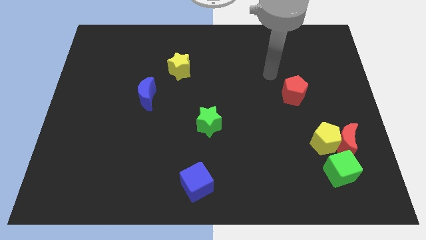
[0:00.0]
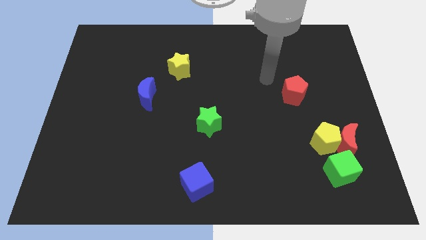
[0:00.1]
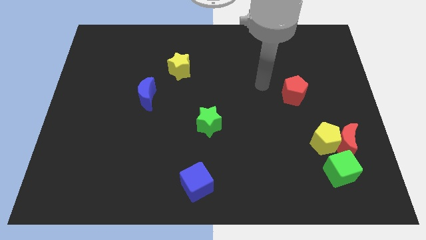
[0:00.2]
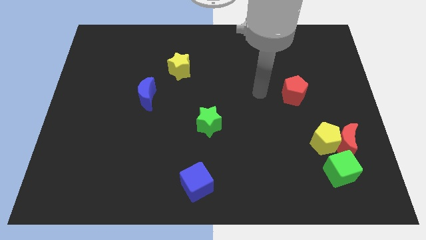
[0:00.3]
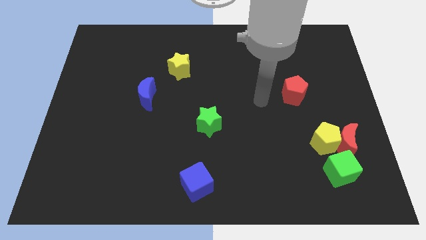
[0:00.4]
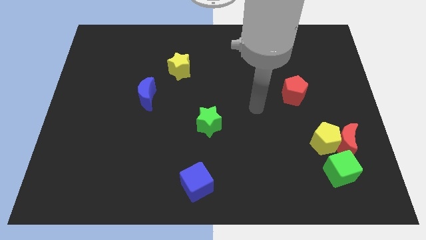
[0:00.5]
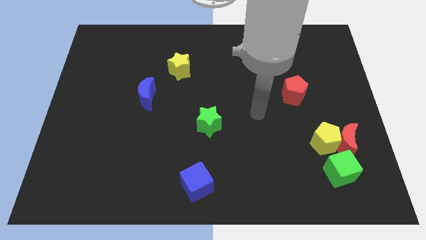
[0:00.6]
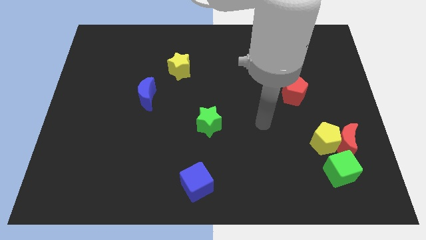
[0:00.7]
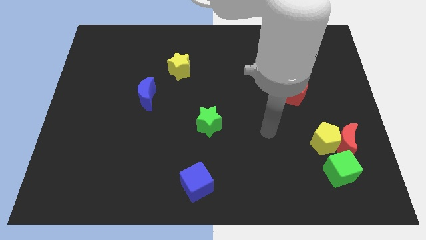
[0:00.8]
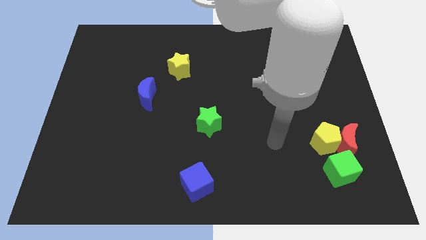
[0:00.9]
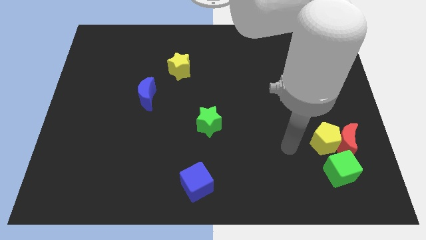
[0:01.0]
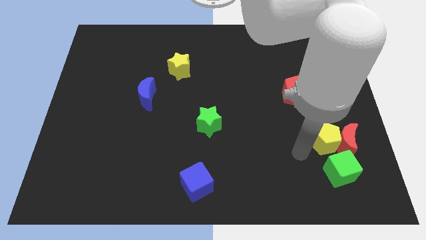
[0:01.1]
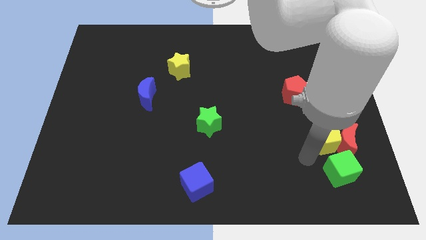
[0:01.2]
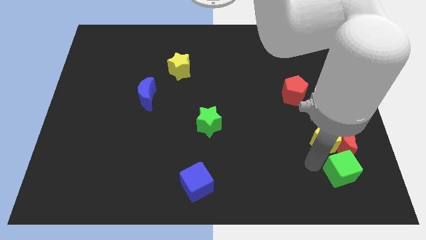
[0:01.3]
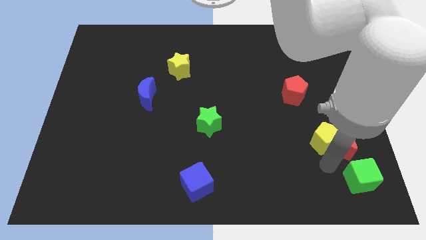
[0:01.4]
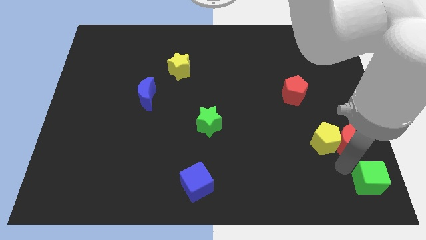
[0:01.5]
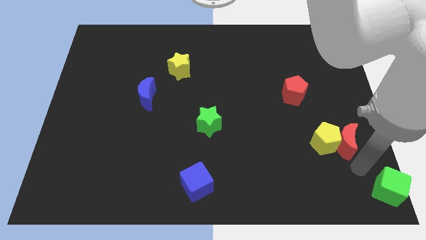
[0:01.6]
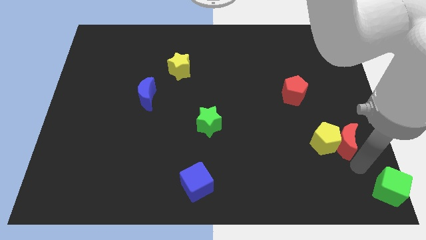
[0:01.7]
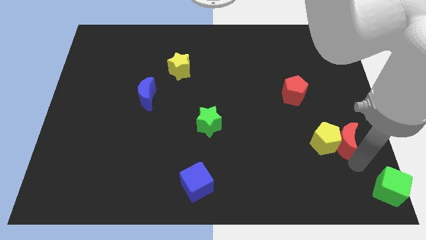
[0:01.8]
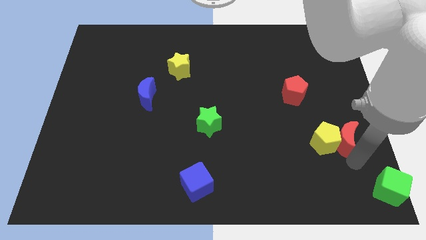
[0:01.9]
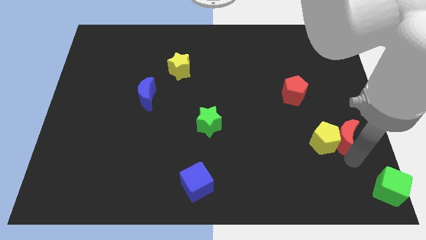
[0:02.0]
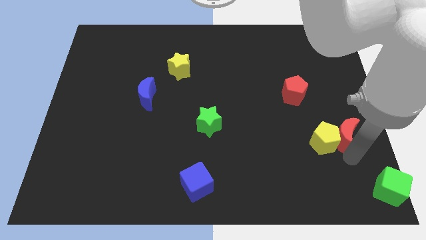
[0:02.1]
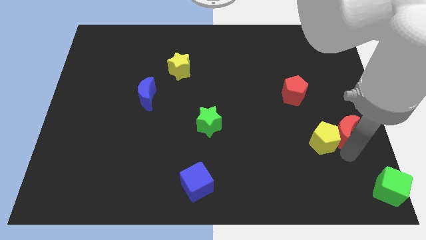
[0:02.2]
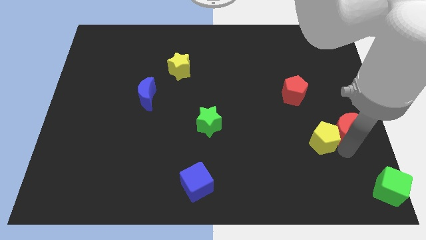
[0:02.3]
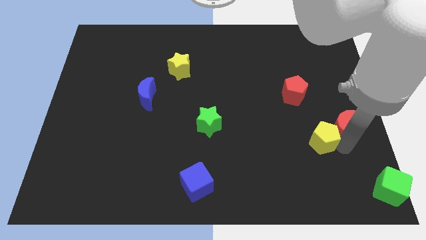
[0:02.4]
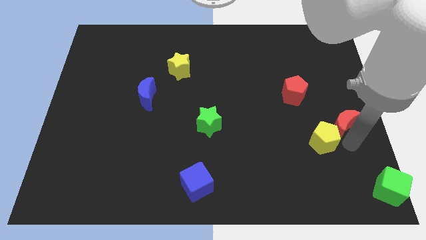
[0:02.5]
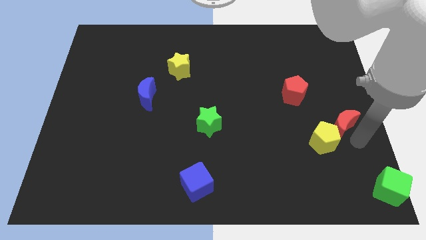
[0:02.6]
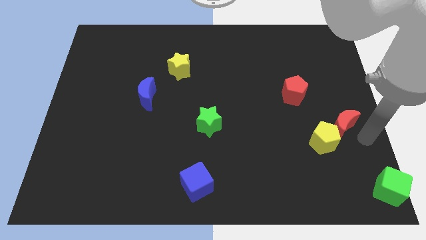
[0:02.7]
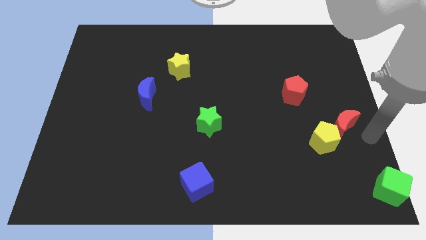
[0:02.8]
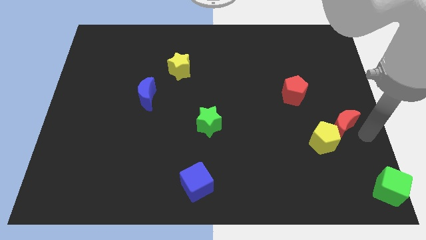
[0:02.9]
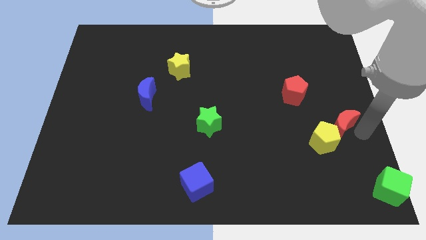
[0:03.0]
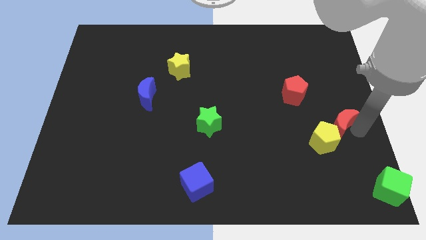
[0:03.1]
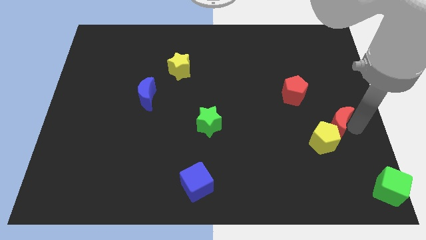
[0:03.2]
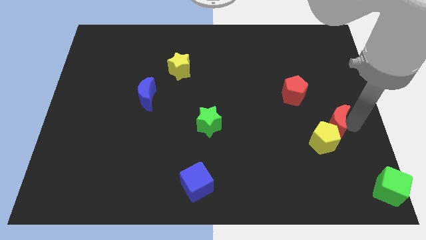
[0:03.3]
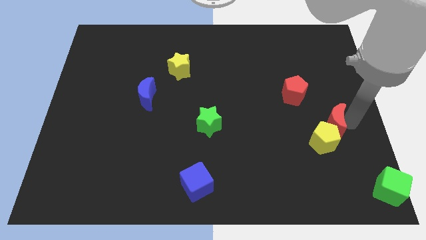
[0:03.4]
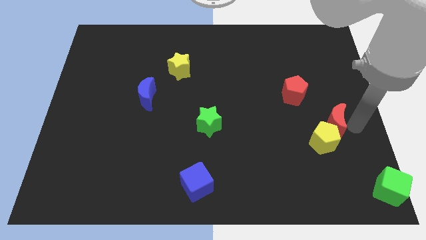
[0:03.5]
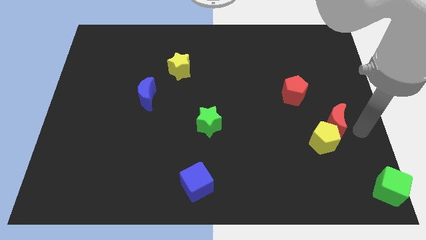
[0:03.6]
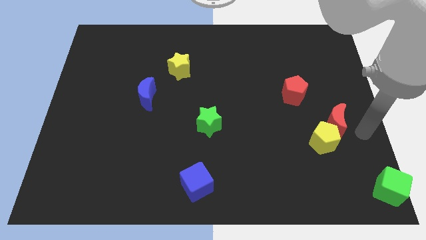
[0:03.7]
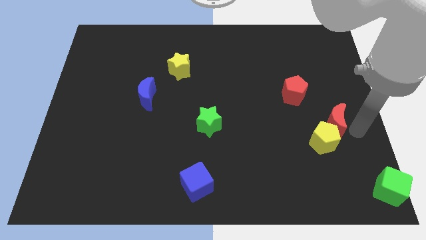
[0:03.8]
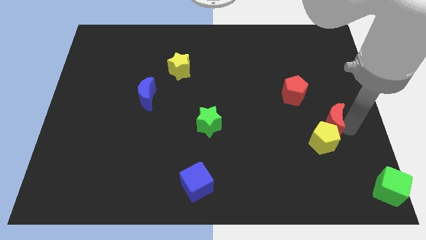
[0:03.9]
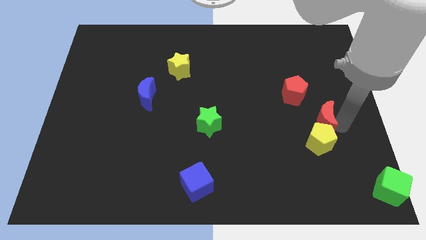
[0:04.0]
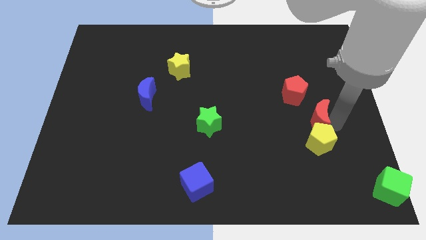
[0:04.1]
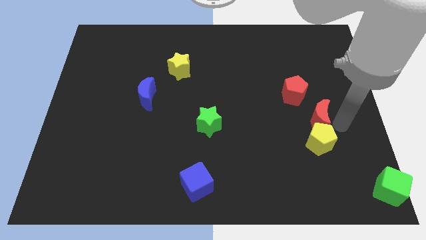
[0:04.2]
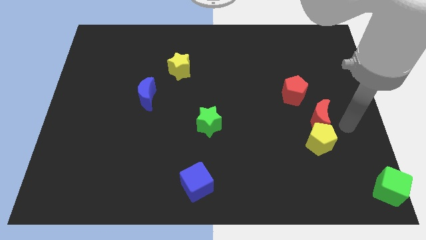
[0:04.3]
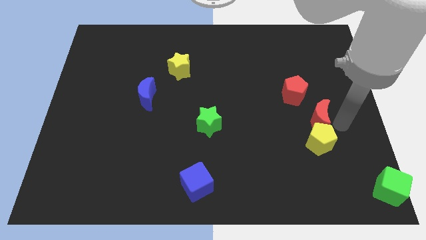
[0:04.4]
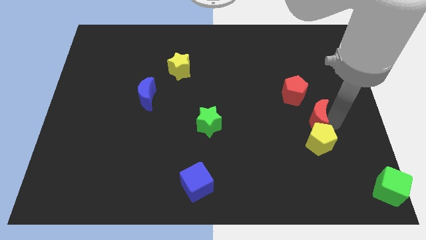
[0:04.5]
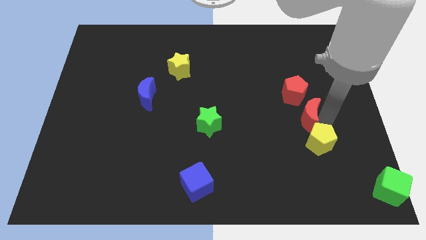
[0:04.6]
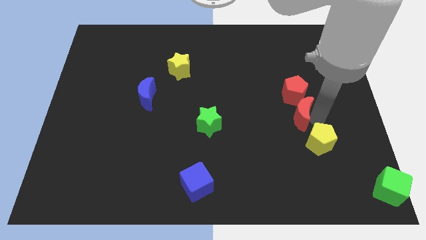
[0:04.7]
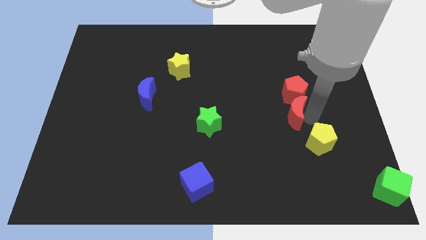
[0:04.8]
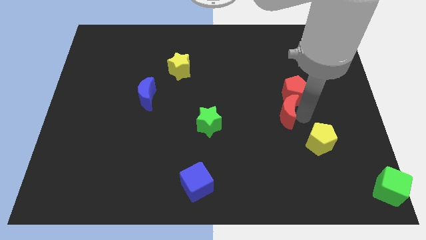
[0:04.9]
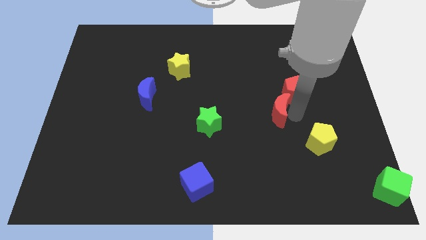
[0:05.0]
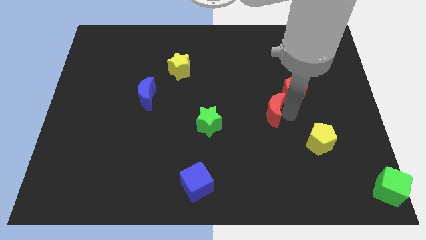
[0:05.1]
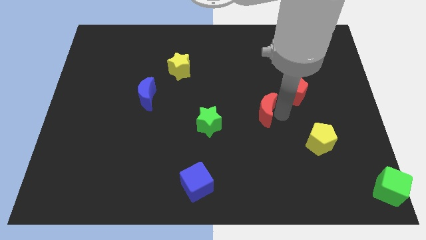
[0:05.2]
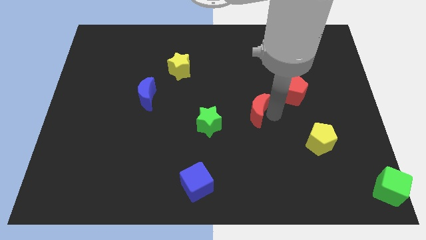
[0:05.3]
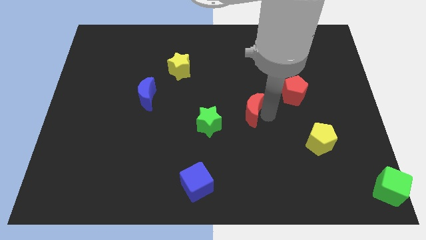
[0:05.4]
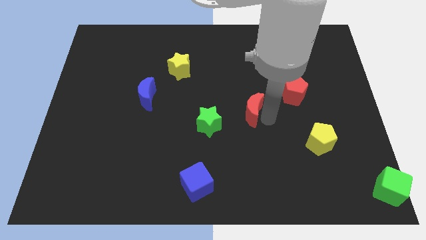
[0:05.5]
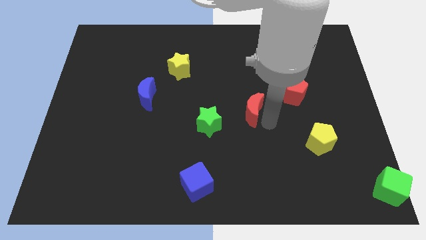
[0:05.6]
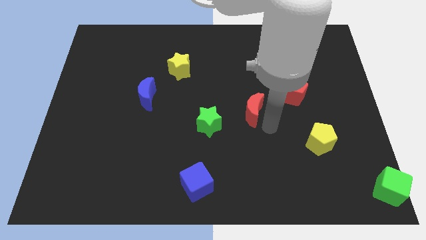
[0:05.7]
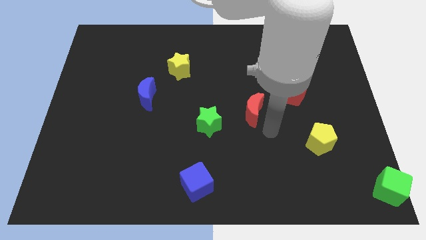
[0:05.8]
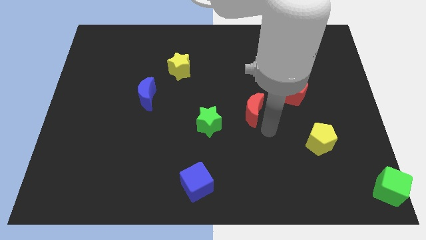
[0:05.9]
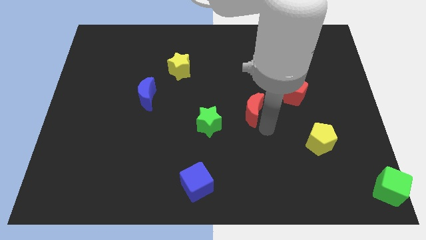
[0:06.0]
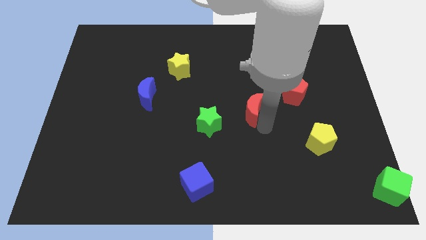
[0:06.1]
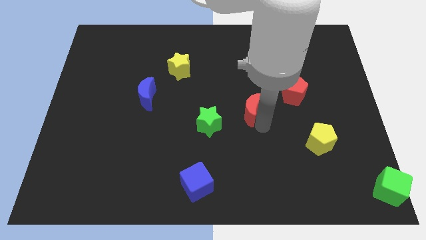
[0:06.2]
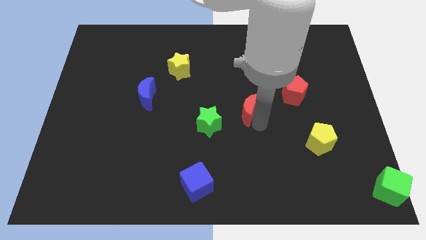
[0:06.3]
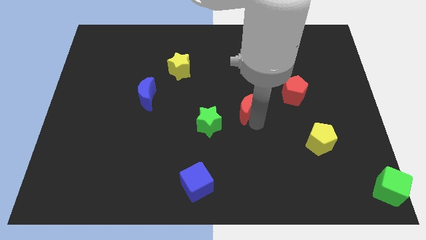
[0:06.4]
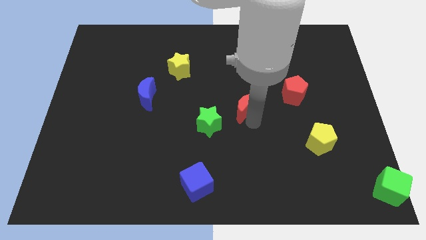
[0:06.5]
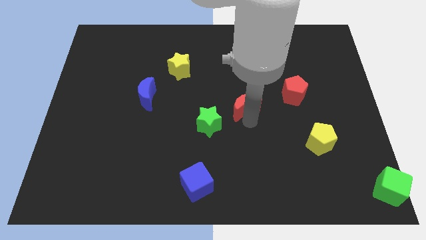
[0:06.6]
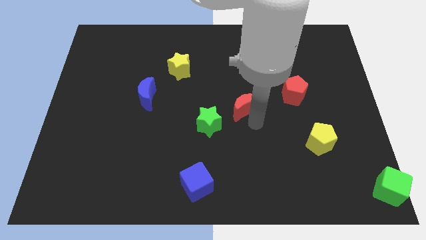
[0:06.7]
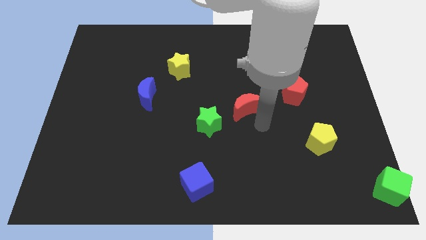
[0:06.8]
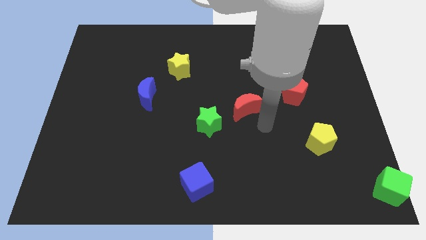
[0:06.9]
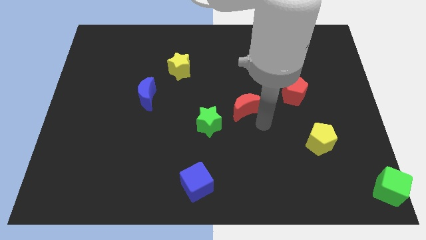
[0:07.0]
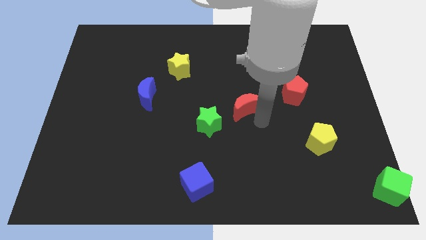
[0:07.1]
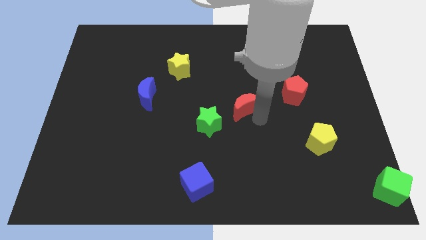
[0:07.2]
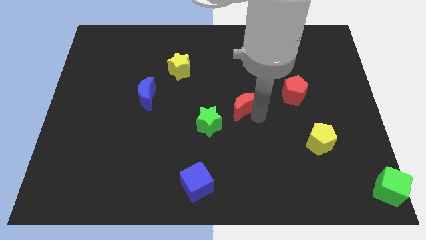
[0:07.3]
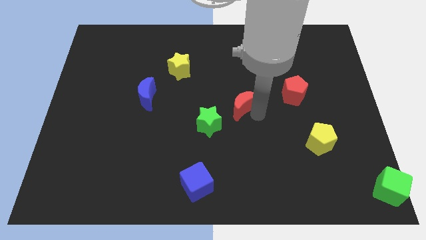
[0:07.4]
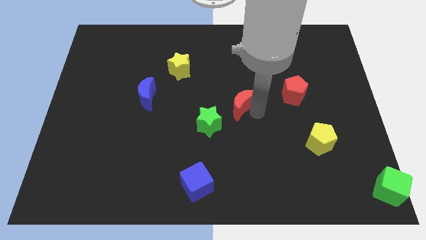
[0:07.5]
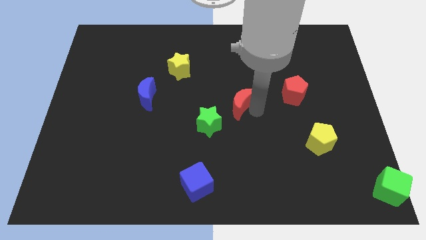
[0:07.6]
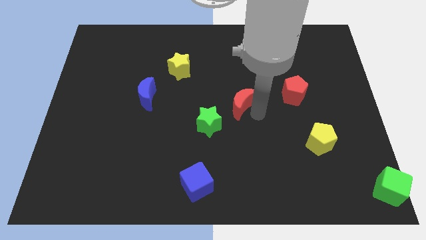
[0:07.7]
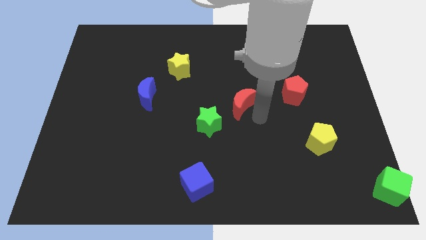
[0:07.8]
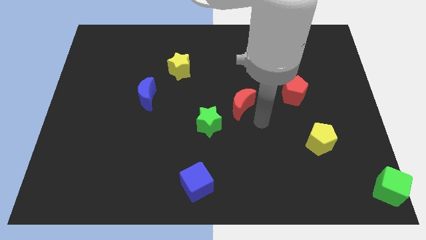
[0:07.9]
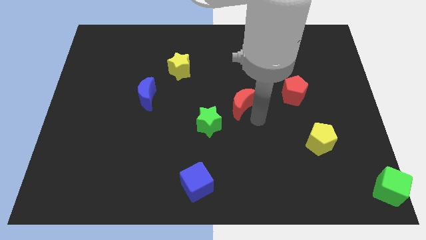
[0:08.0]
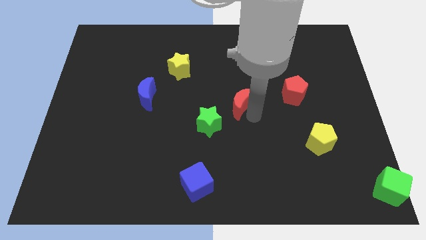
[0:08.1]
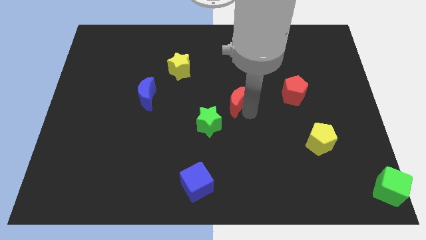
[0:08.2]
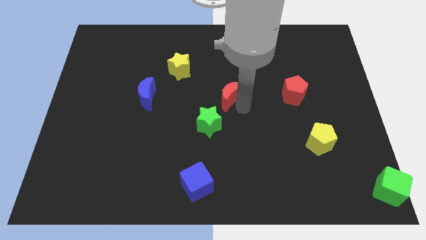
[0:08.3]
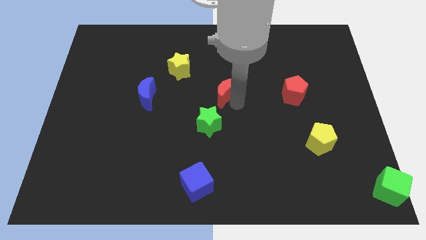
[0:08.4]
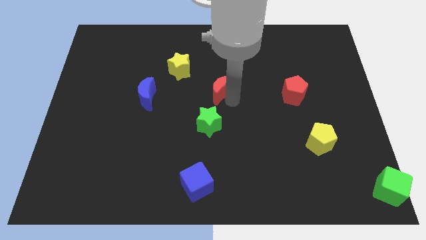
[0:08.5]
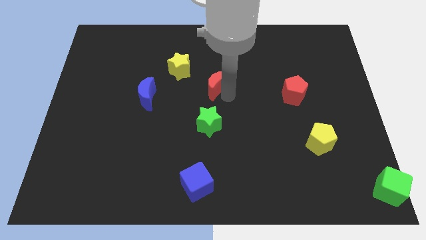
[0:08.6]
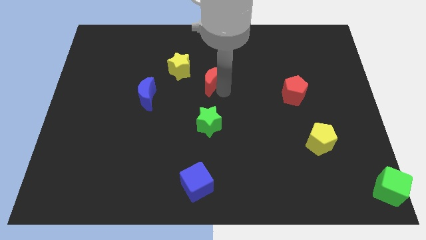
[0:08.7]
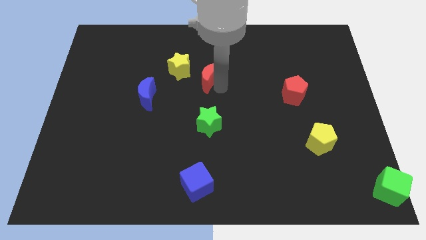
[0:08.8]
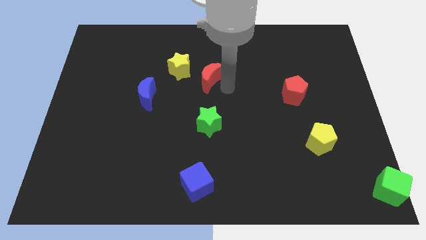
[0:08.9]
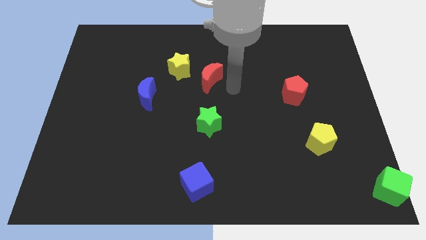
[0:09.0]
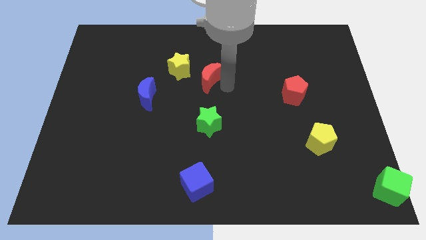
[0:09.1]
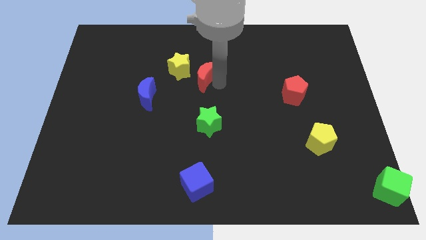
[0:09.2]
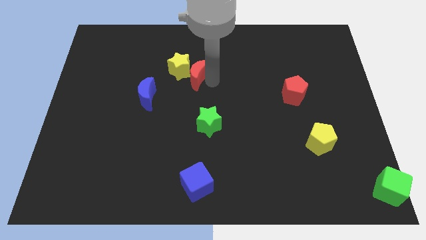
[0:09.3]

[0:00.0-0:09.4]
put the red moon towards the yellow star
